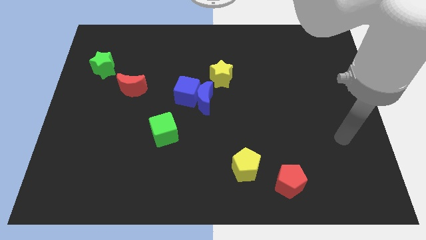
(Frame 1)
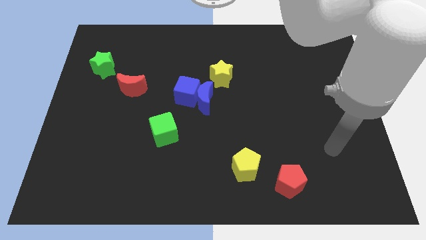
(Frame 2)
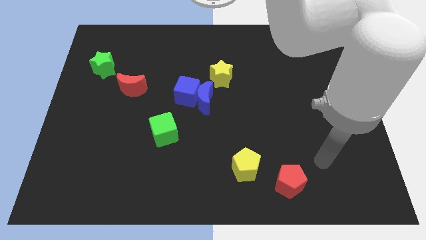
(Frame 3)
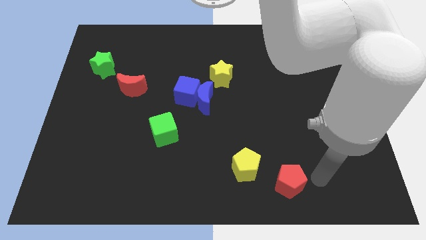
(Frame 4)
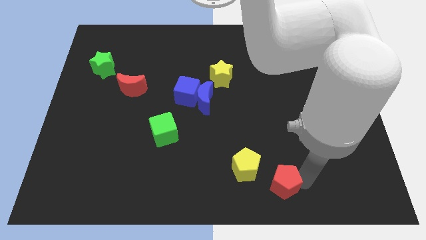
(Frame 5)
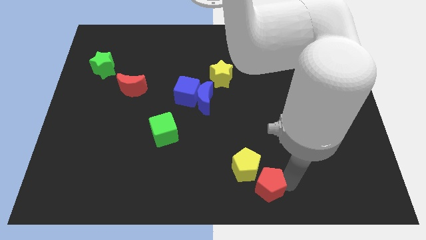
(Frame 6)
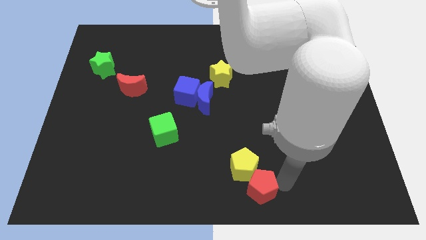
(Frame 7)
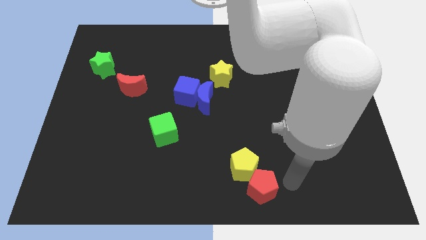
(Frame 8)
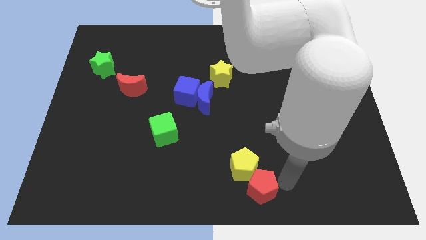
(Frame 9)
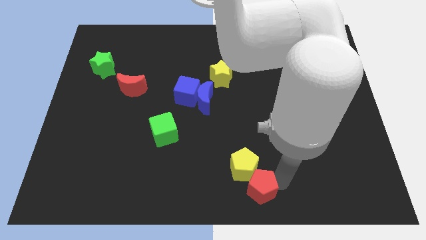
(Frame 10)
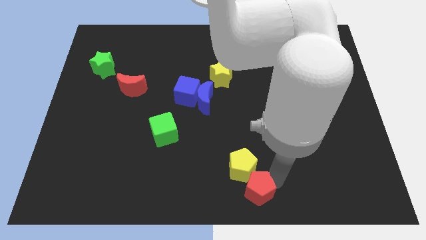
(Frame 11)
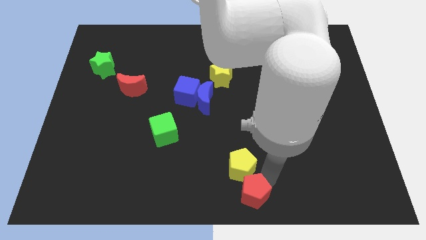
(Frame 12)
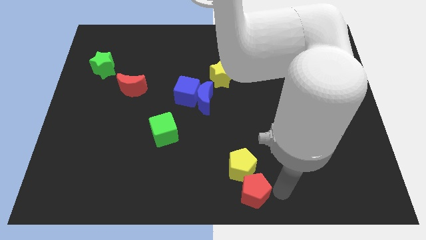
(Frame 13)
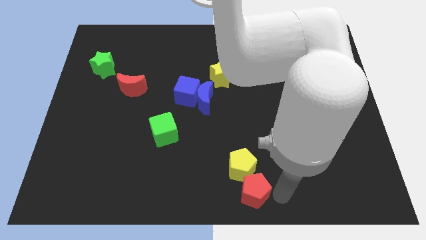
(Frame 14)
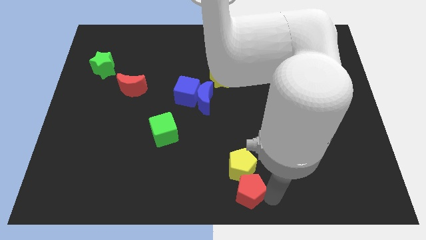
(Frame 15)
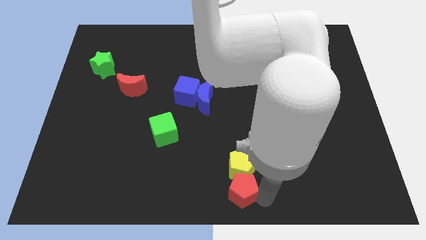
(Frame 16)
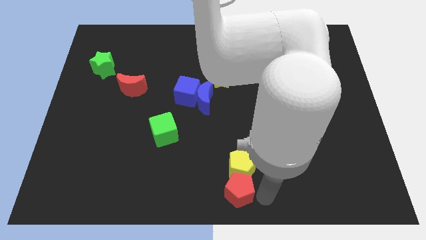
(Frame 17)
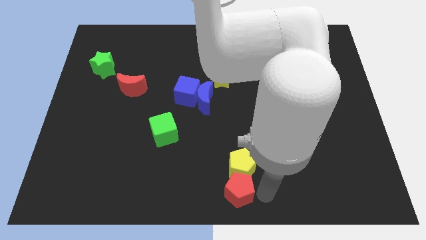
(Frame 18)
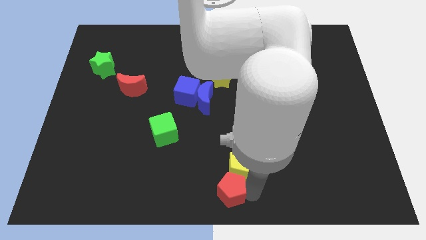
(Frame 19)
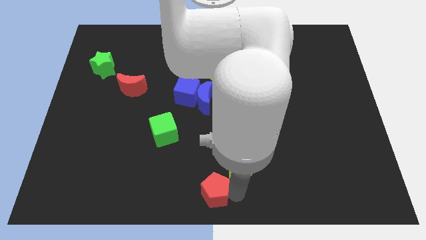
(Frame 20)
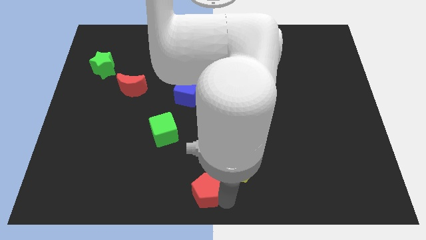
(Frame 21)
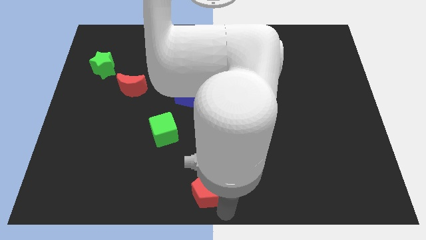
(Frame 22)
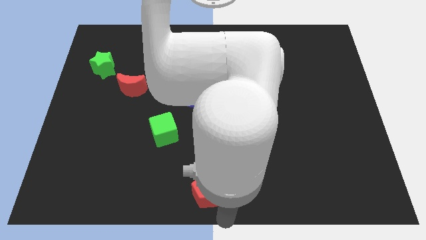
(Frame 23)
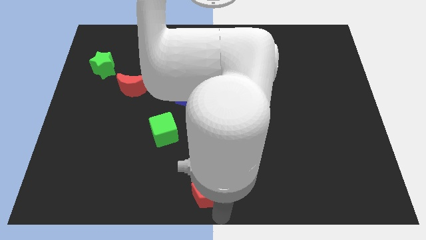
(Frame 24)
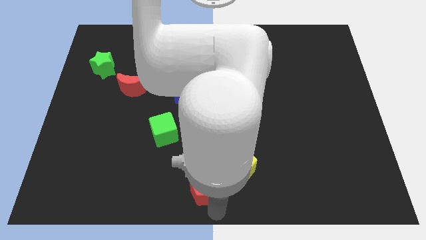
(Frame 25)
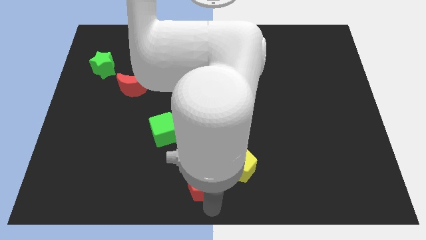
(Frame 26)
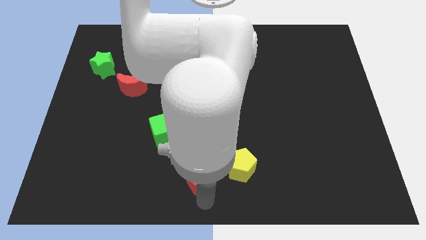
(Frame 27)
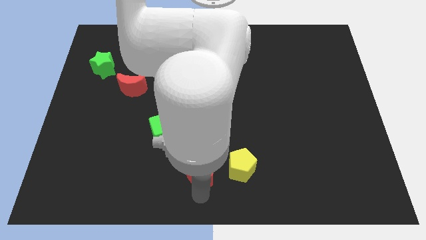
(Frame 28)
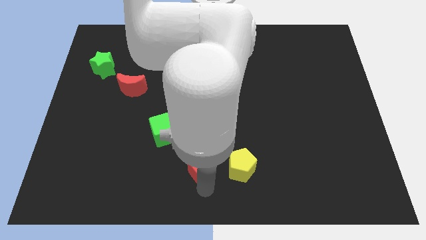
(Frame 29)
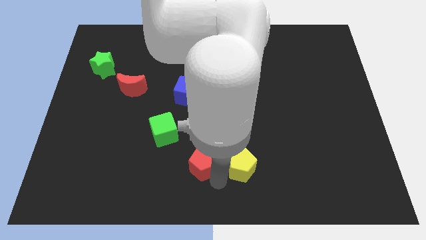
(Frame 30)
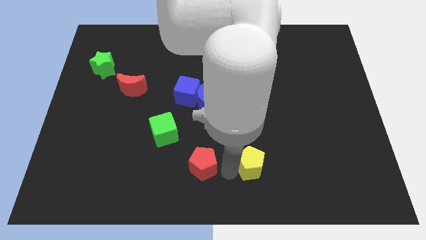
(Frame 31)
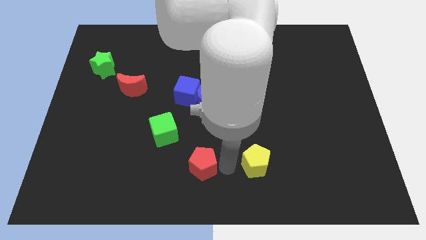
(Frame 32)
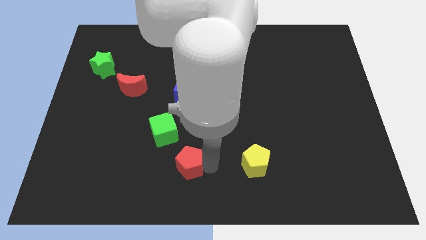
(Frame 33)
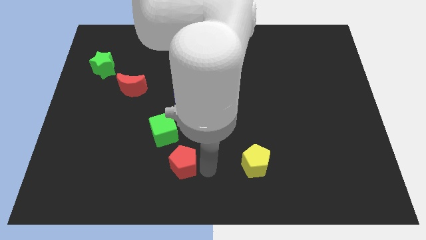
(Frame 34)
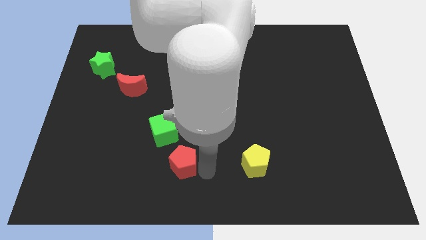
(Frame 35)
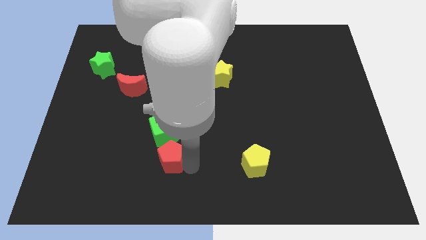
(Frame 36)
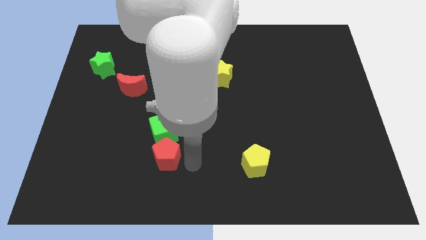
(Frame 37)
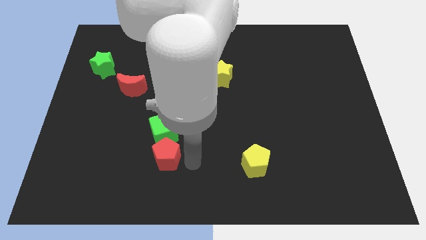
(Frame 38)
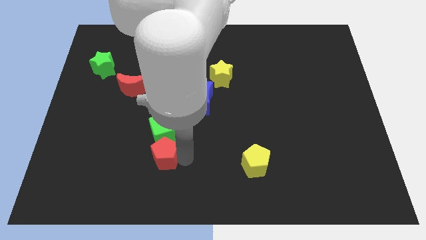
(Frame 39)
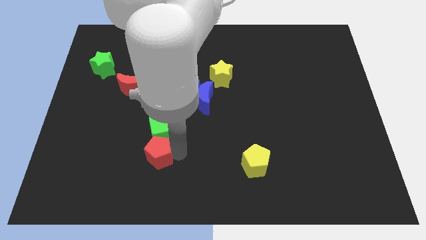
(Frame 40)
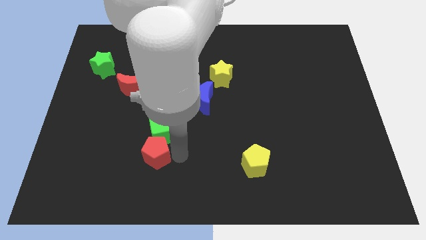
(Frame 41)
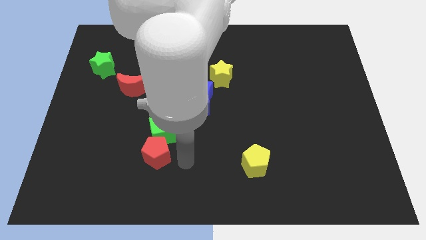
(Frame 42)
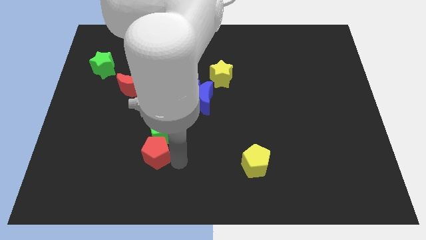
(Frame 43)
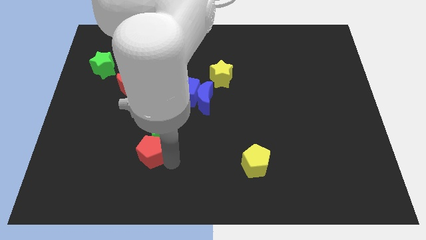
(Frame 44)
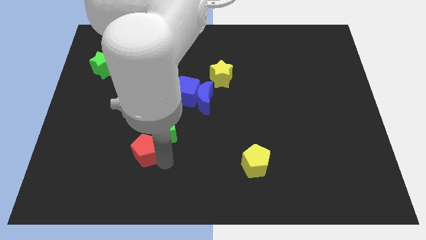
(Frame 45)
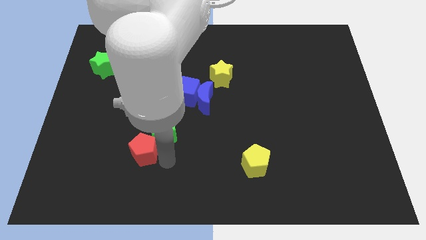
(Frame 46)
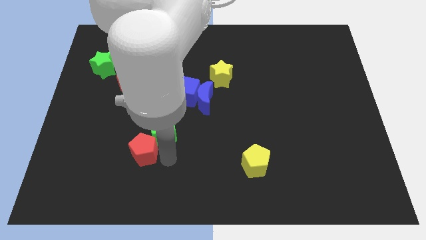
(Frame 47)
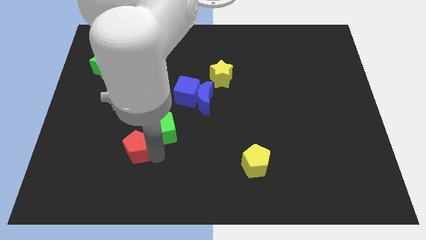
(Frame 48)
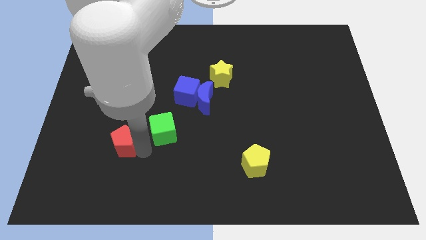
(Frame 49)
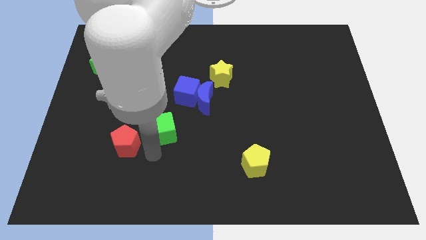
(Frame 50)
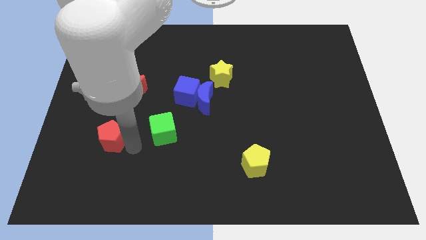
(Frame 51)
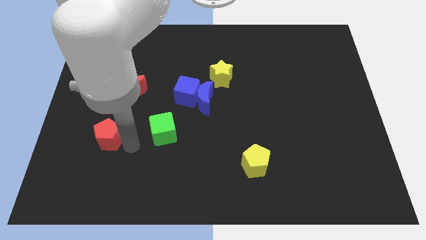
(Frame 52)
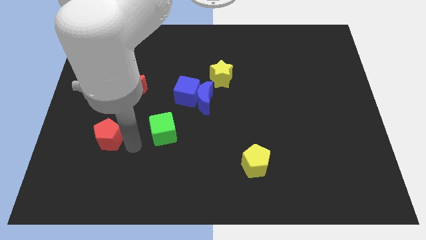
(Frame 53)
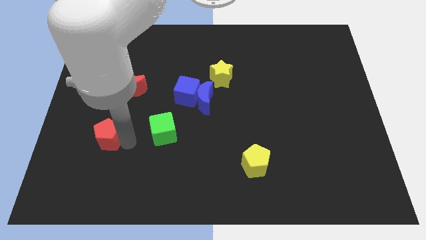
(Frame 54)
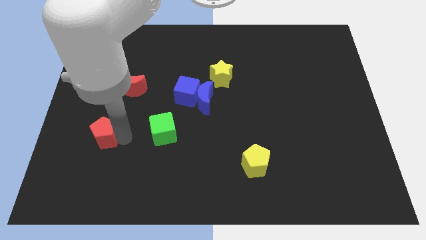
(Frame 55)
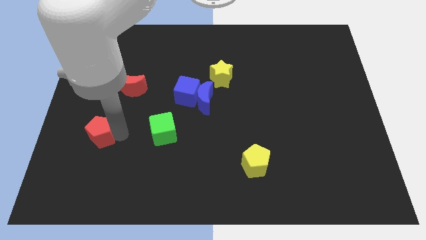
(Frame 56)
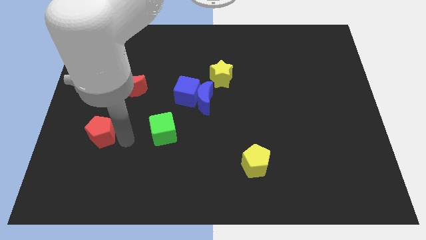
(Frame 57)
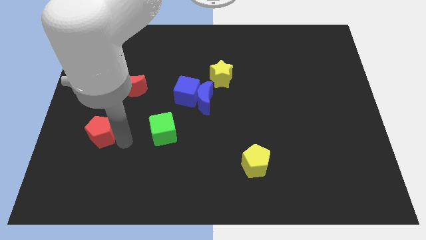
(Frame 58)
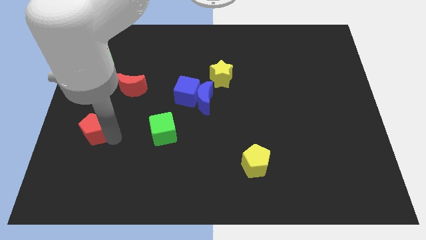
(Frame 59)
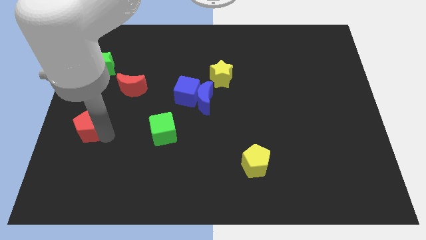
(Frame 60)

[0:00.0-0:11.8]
push the red pentagon to the left side
